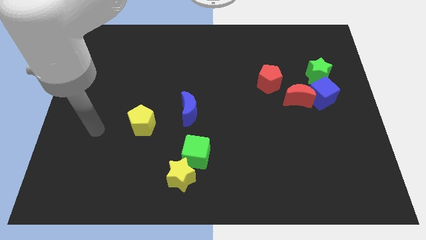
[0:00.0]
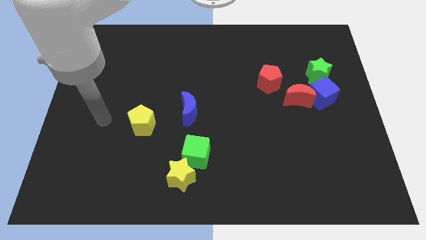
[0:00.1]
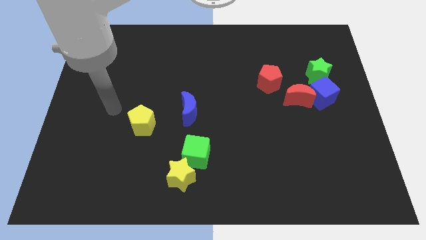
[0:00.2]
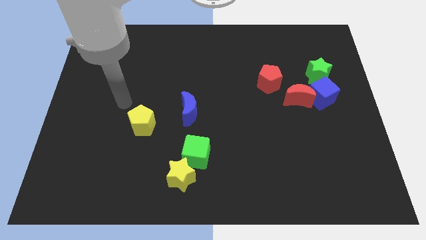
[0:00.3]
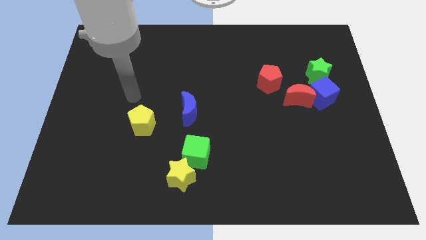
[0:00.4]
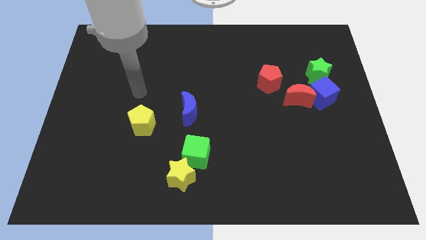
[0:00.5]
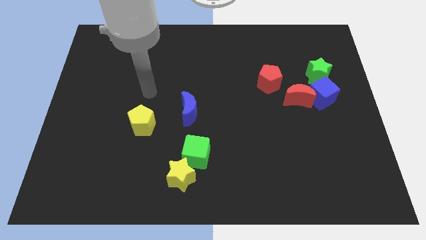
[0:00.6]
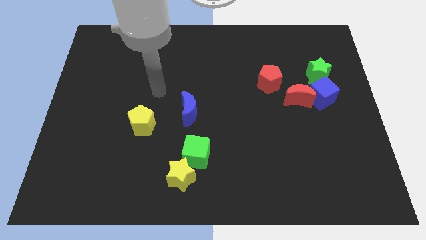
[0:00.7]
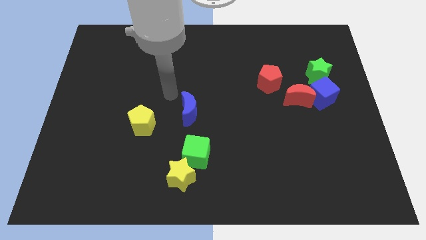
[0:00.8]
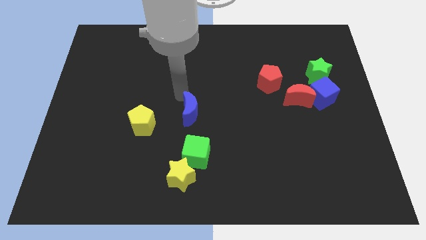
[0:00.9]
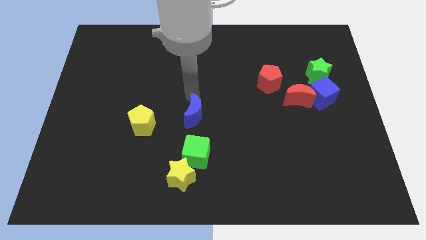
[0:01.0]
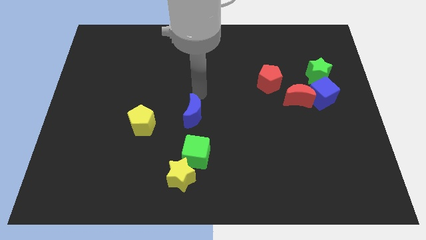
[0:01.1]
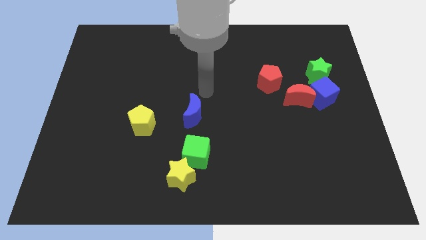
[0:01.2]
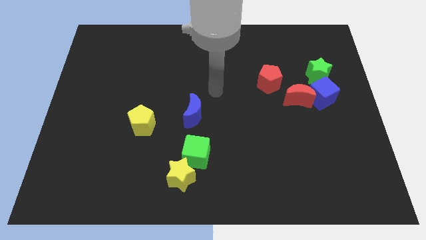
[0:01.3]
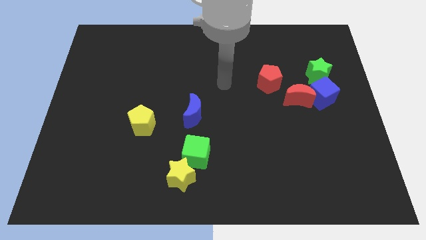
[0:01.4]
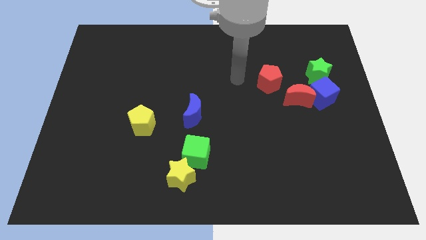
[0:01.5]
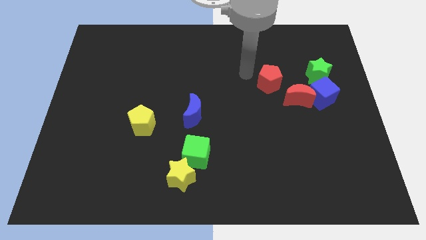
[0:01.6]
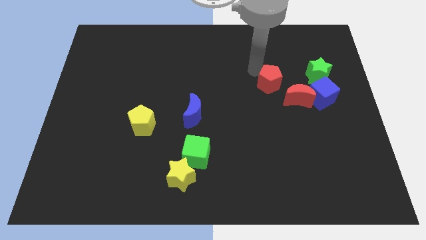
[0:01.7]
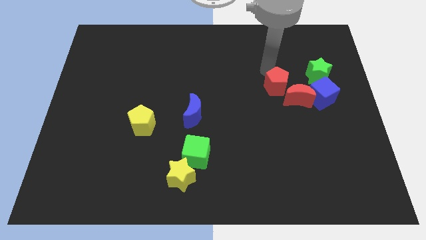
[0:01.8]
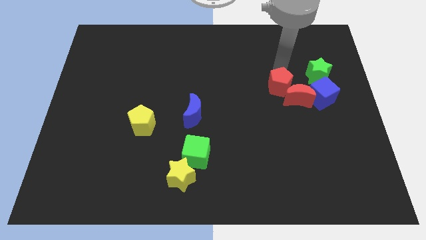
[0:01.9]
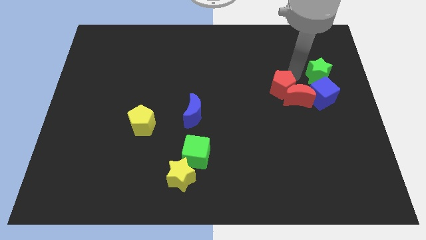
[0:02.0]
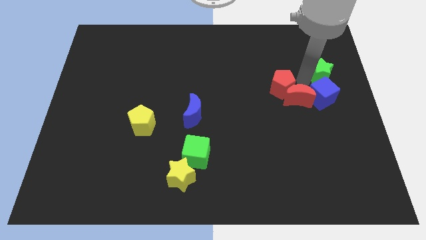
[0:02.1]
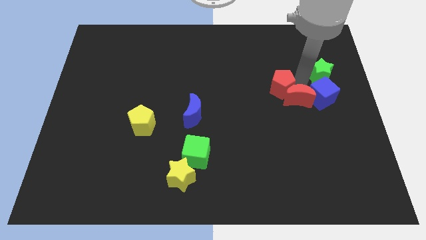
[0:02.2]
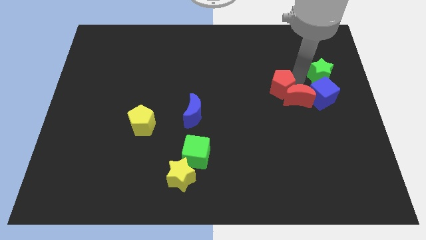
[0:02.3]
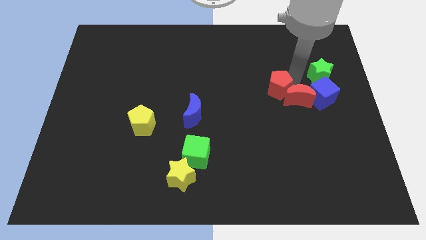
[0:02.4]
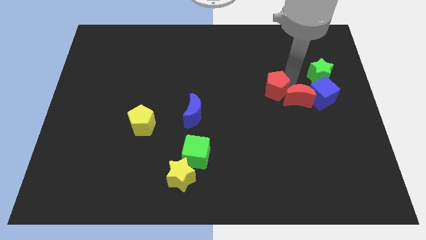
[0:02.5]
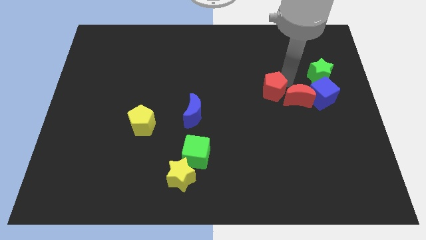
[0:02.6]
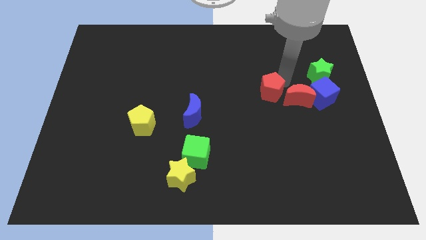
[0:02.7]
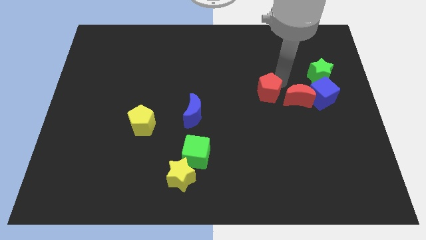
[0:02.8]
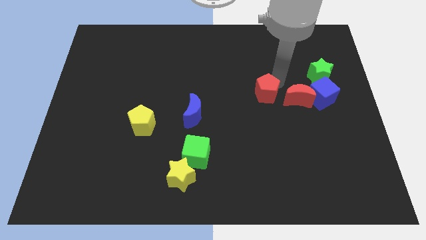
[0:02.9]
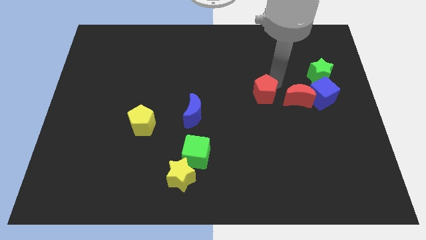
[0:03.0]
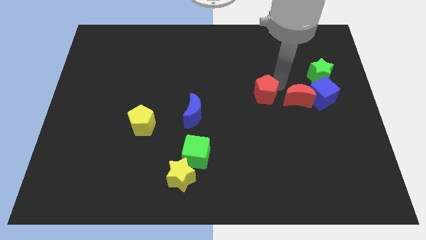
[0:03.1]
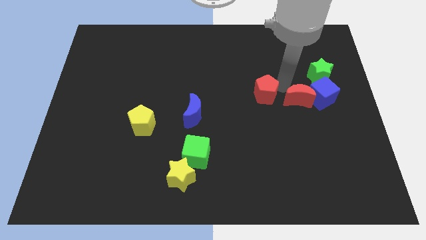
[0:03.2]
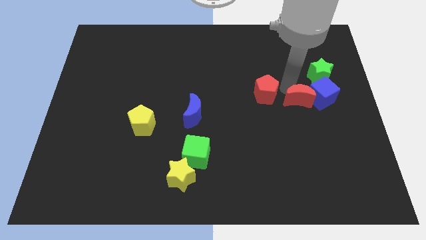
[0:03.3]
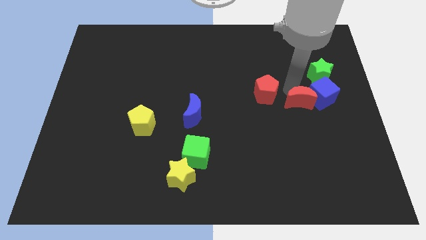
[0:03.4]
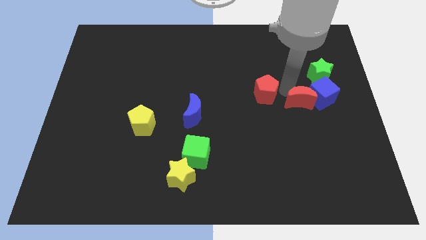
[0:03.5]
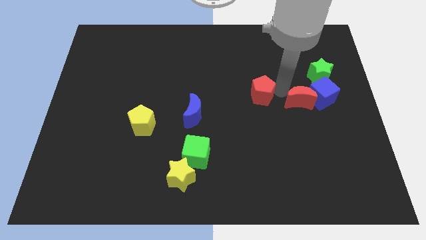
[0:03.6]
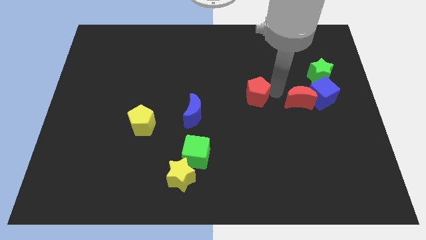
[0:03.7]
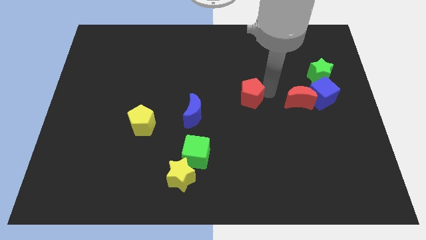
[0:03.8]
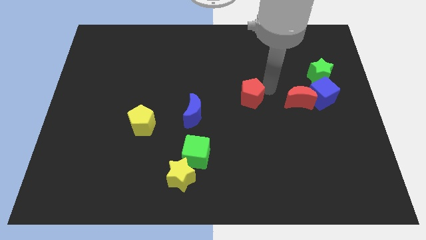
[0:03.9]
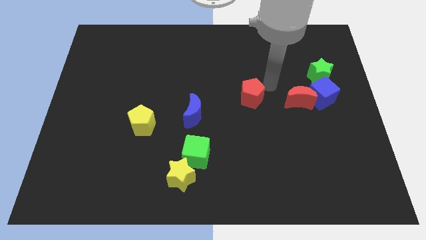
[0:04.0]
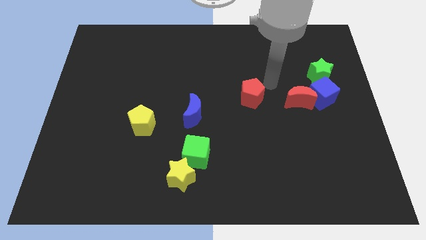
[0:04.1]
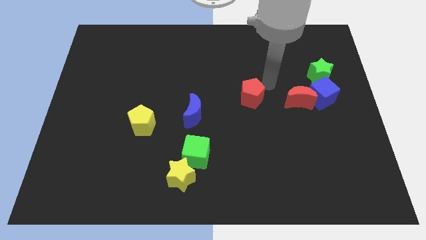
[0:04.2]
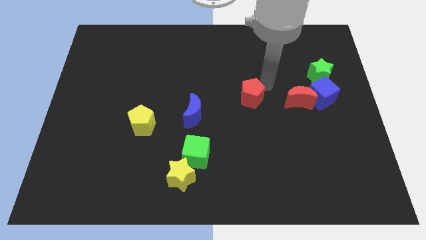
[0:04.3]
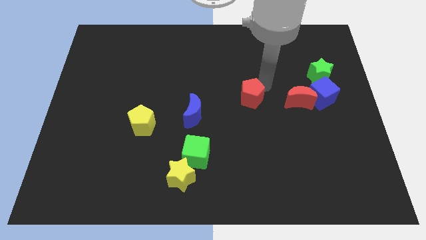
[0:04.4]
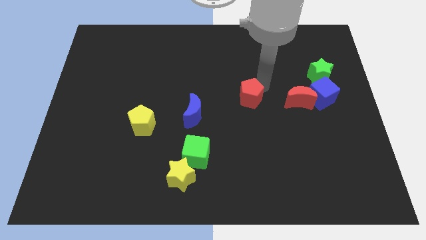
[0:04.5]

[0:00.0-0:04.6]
move the red pentagon down and to the left diagonally a little

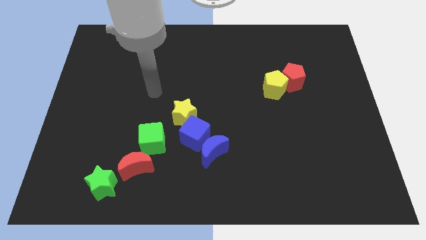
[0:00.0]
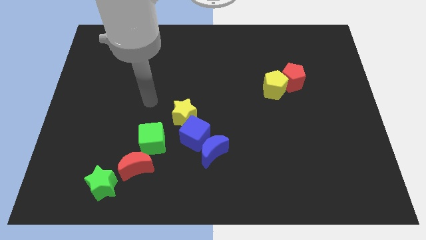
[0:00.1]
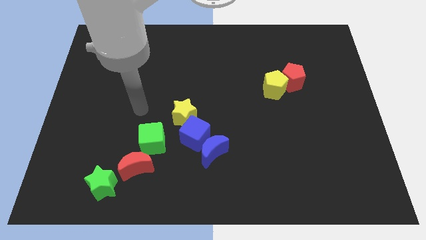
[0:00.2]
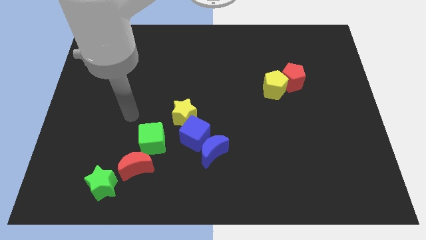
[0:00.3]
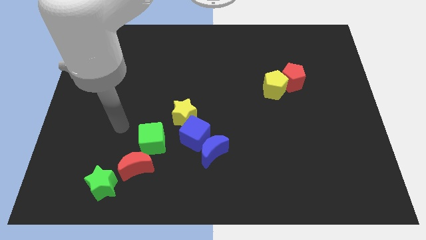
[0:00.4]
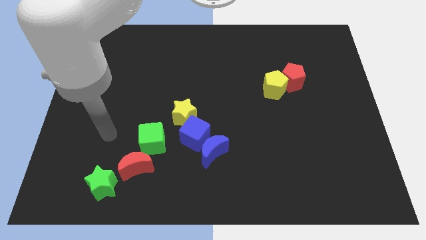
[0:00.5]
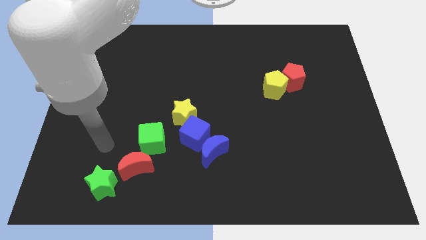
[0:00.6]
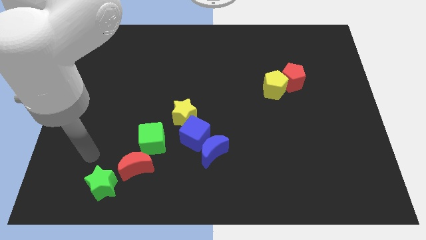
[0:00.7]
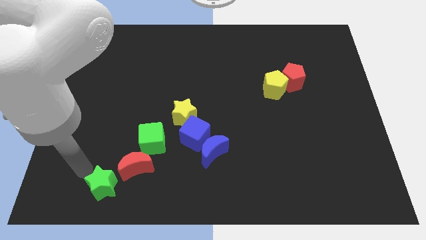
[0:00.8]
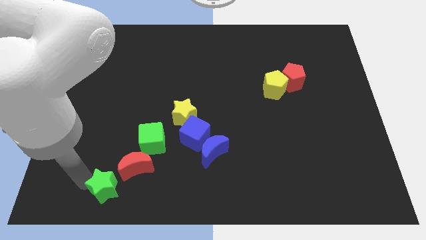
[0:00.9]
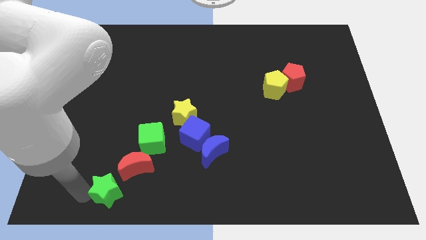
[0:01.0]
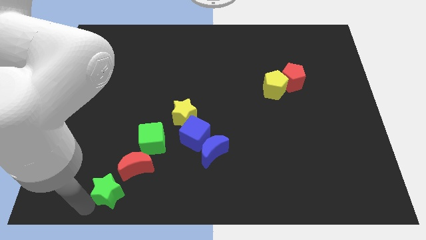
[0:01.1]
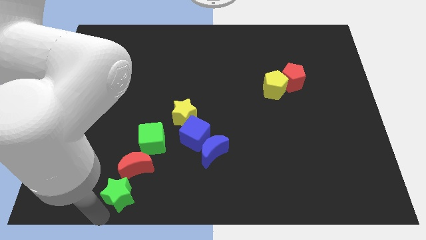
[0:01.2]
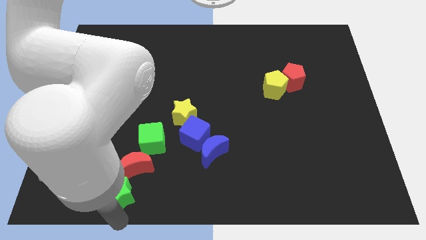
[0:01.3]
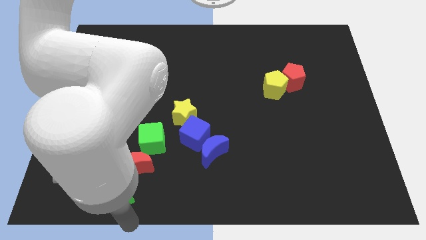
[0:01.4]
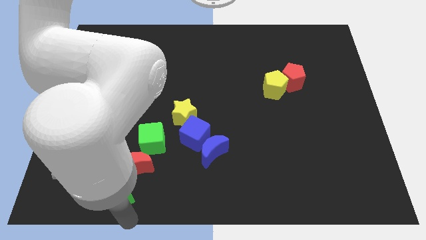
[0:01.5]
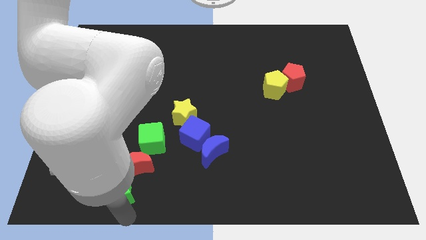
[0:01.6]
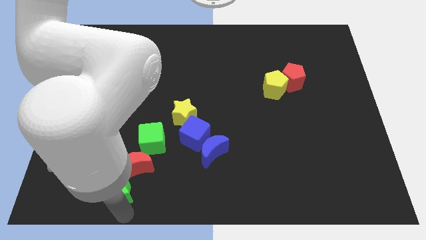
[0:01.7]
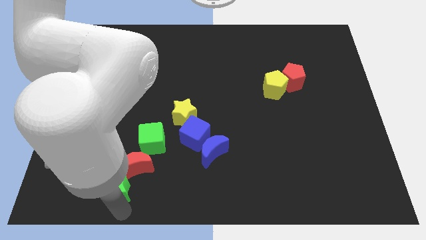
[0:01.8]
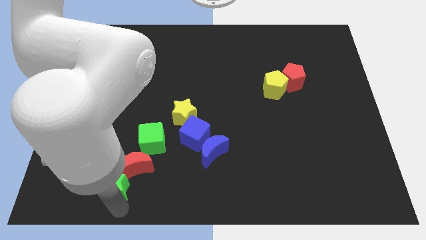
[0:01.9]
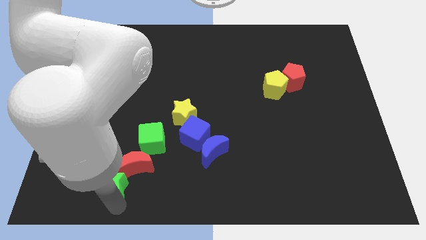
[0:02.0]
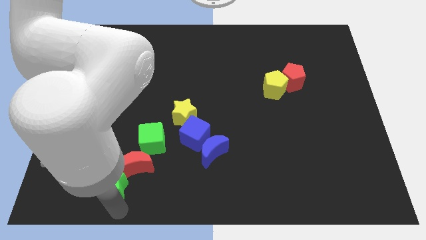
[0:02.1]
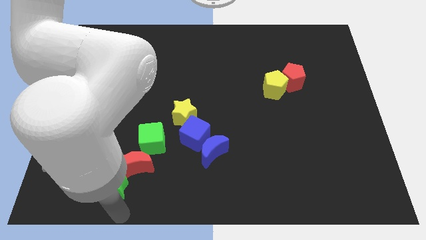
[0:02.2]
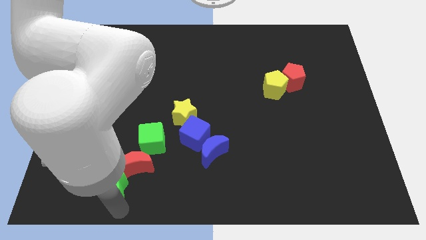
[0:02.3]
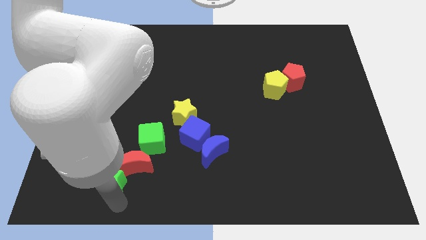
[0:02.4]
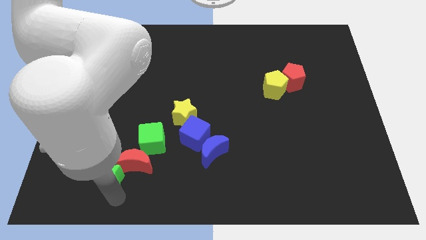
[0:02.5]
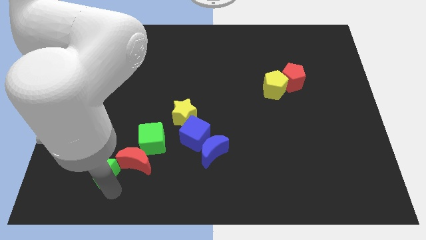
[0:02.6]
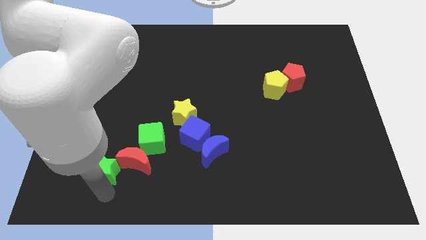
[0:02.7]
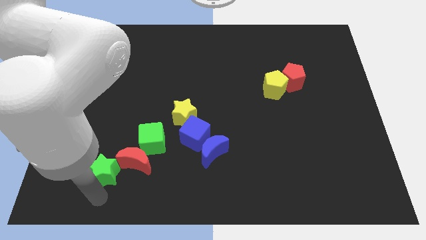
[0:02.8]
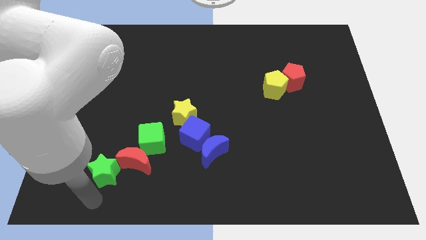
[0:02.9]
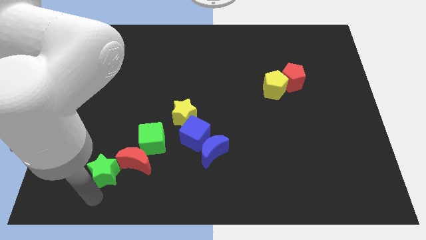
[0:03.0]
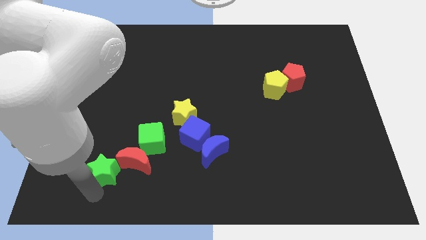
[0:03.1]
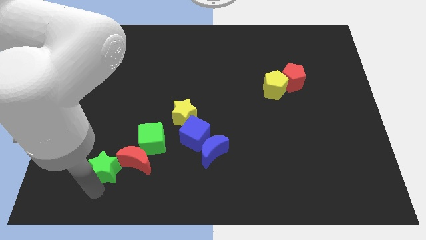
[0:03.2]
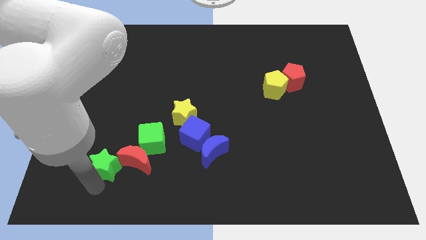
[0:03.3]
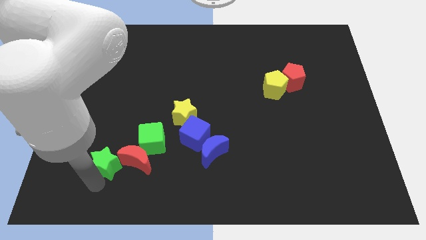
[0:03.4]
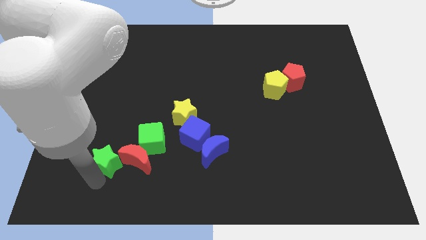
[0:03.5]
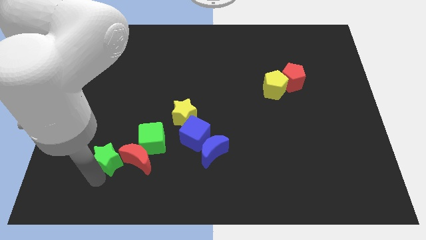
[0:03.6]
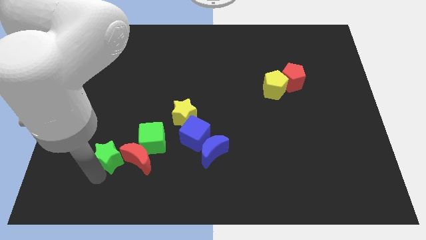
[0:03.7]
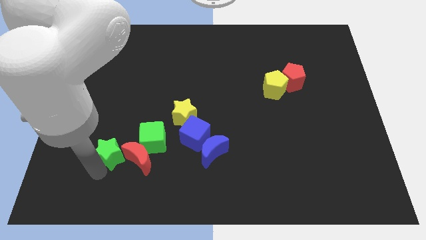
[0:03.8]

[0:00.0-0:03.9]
push the green star a little bit upwards
